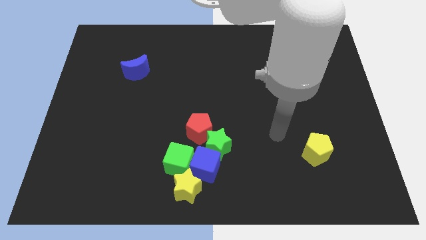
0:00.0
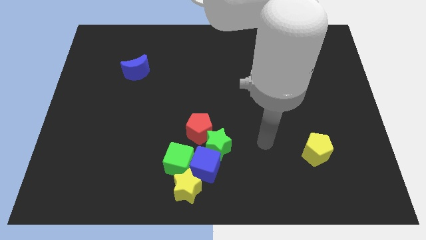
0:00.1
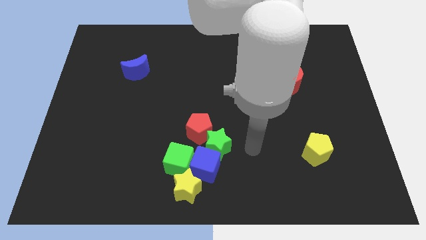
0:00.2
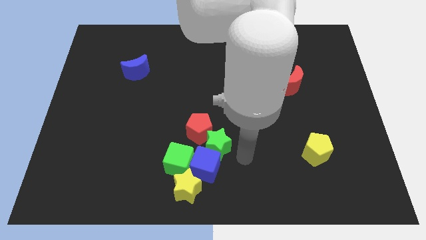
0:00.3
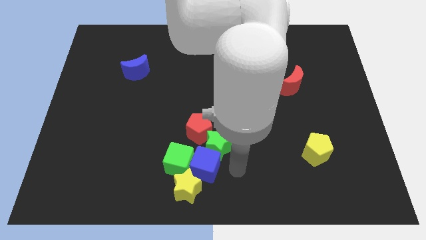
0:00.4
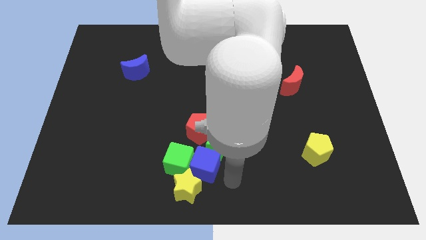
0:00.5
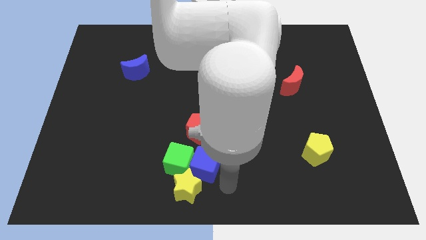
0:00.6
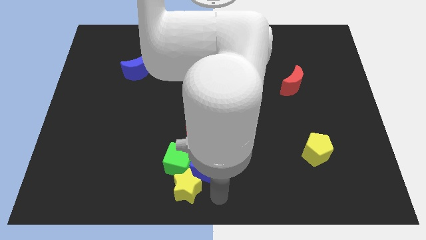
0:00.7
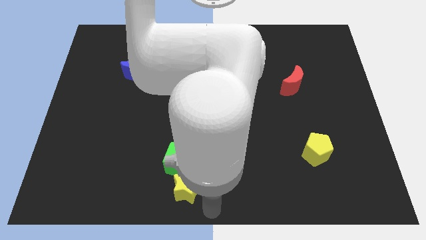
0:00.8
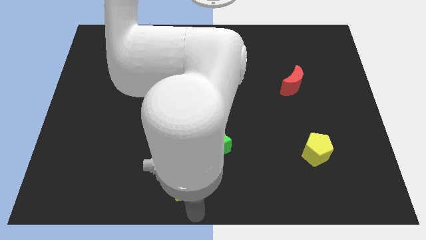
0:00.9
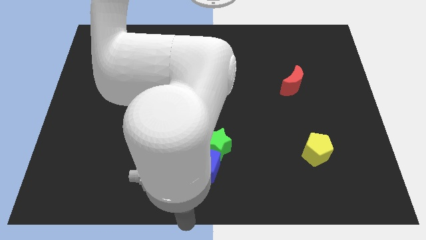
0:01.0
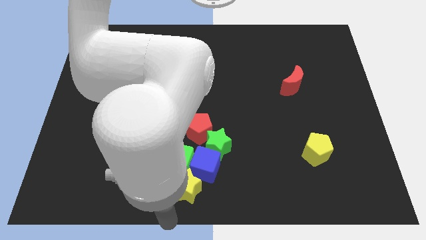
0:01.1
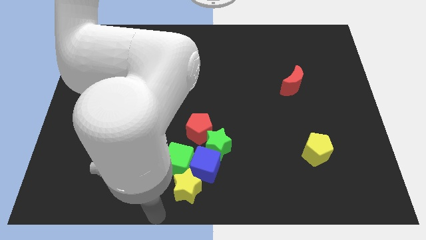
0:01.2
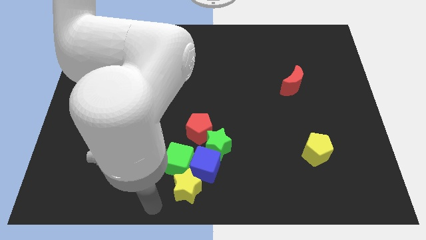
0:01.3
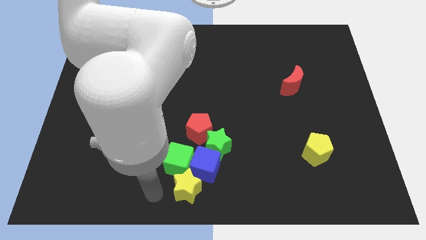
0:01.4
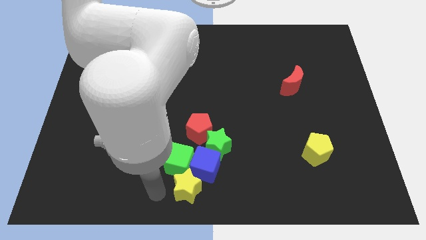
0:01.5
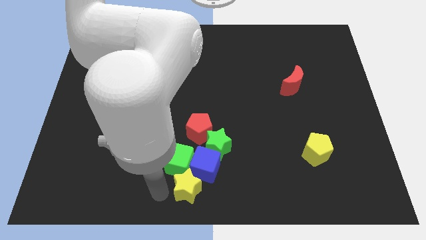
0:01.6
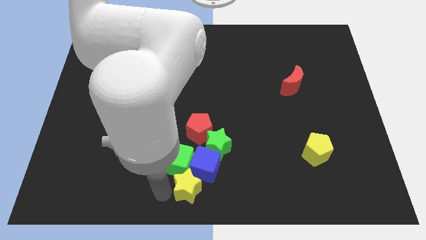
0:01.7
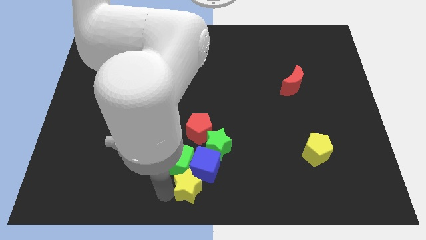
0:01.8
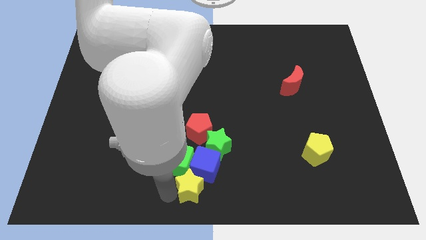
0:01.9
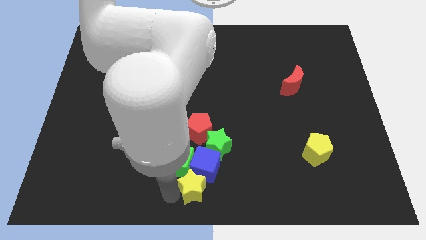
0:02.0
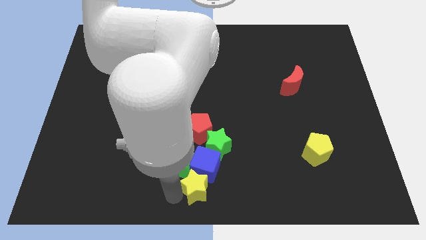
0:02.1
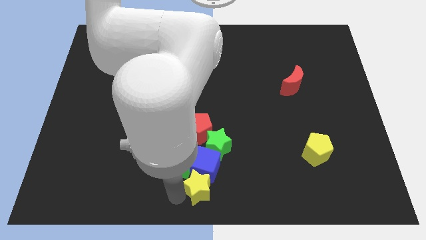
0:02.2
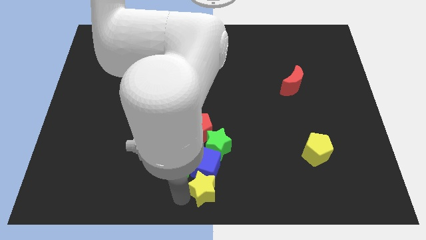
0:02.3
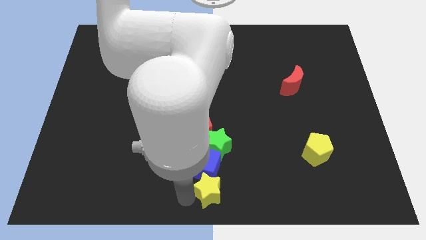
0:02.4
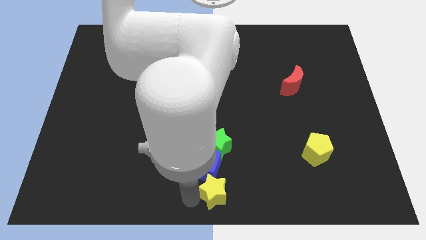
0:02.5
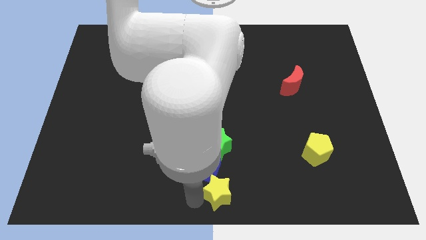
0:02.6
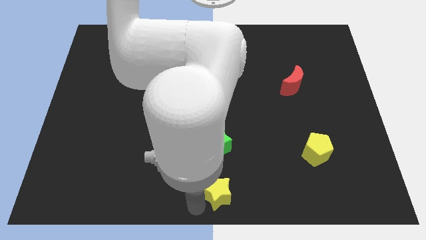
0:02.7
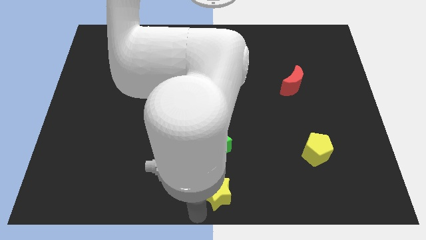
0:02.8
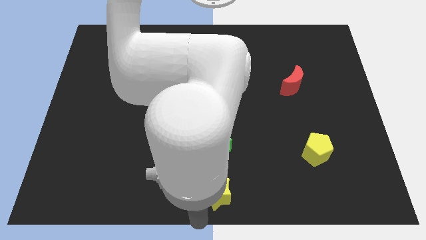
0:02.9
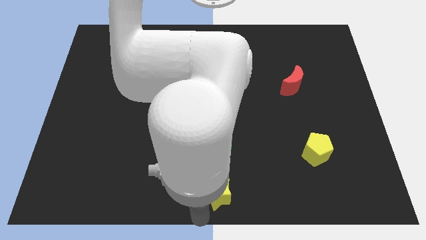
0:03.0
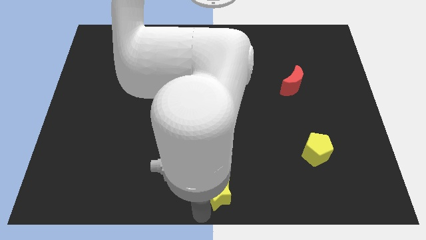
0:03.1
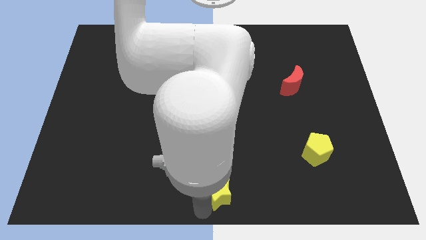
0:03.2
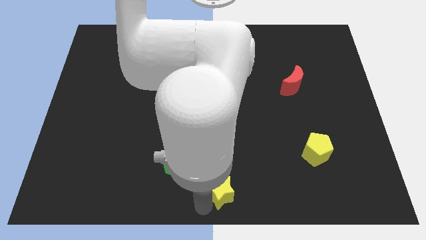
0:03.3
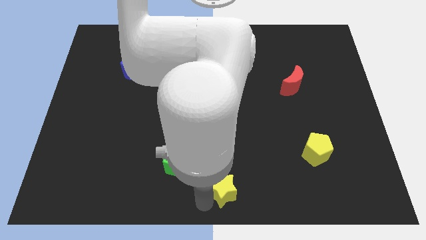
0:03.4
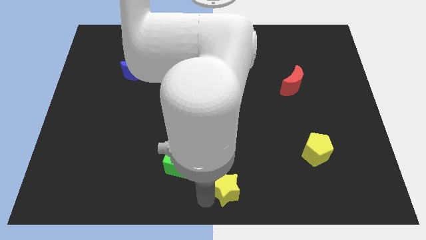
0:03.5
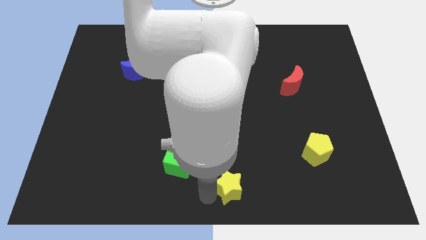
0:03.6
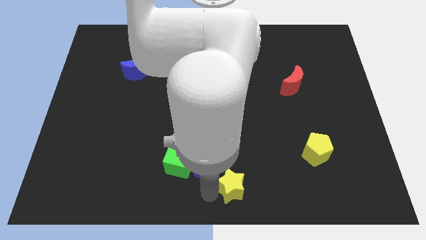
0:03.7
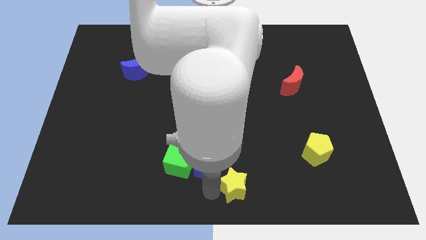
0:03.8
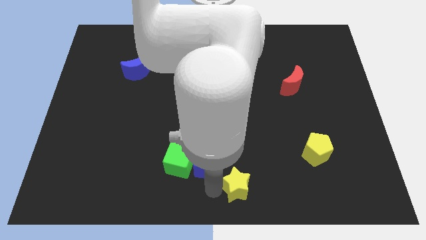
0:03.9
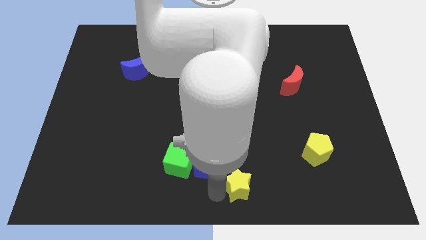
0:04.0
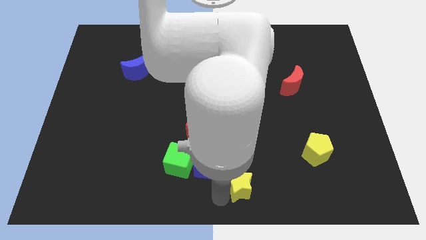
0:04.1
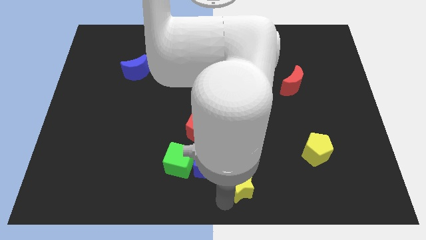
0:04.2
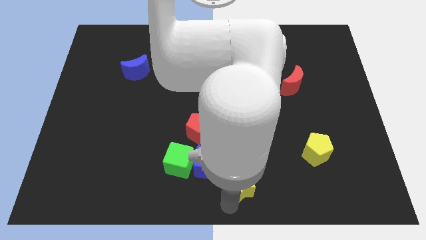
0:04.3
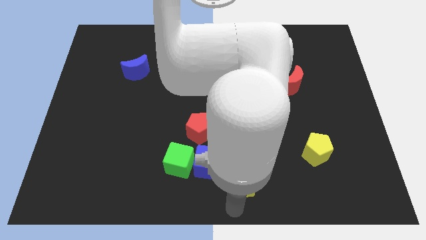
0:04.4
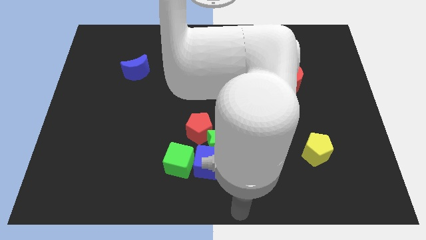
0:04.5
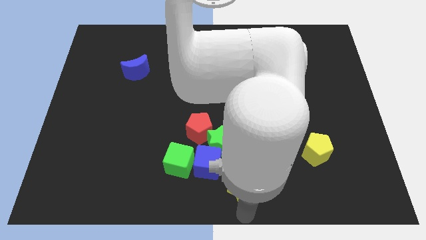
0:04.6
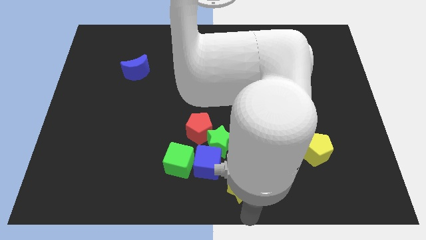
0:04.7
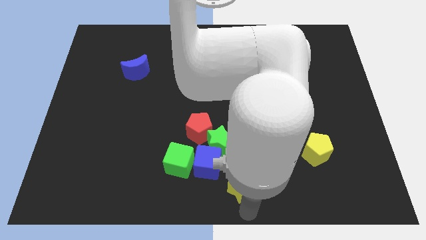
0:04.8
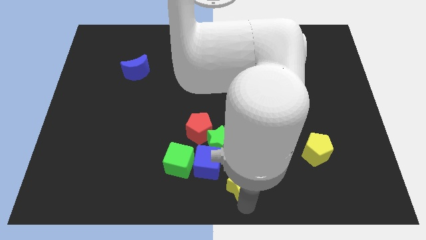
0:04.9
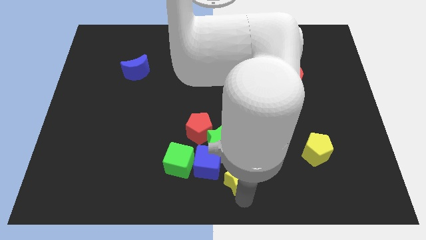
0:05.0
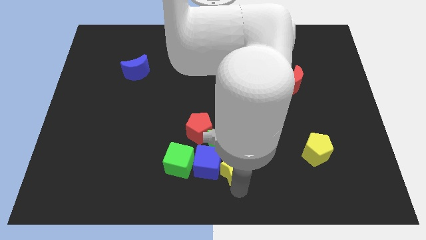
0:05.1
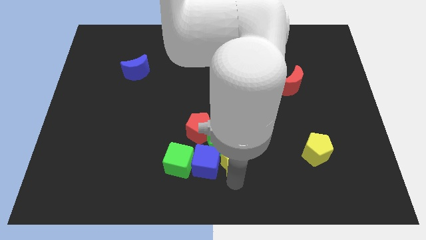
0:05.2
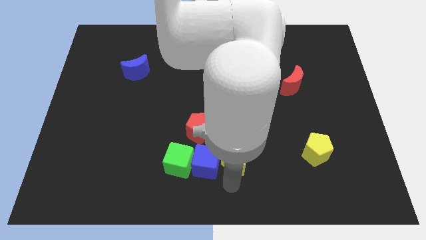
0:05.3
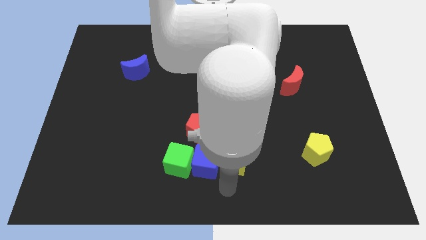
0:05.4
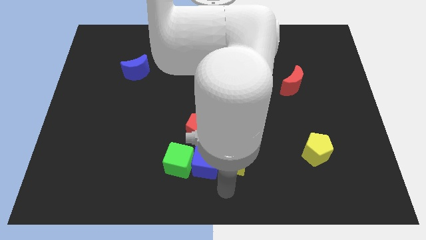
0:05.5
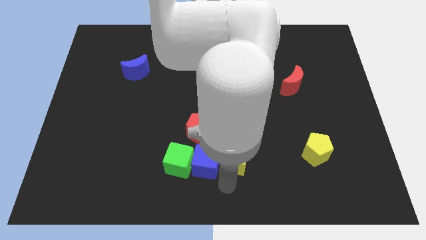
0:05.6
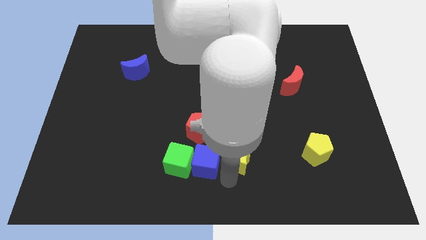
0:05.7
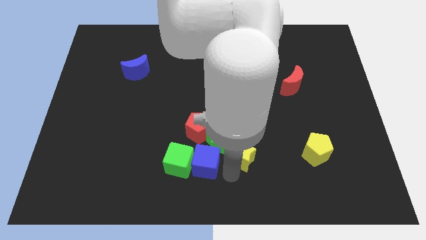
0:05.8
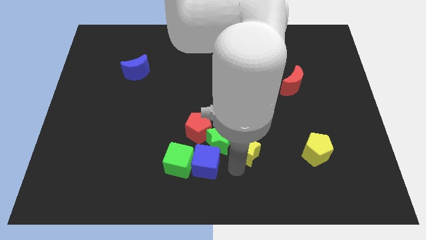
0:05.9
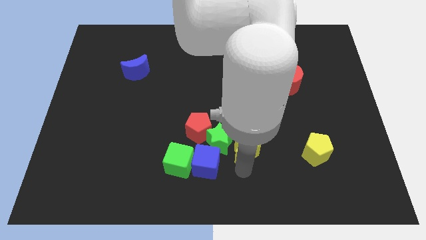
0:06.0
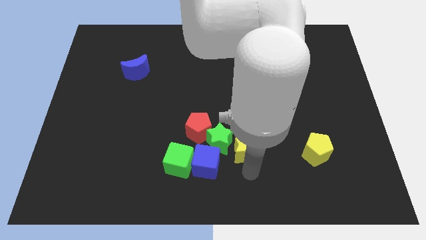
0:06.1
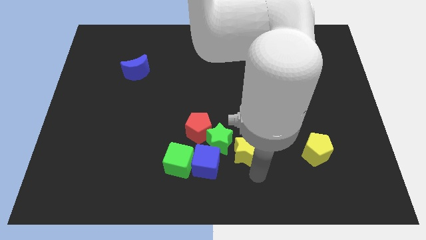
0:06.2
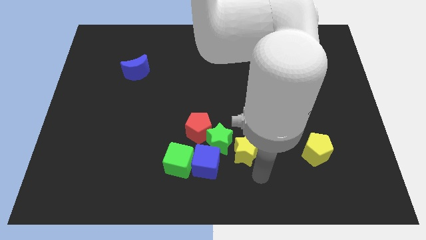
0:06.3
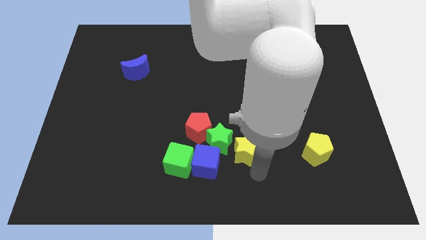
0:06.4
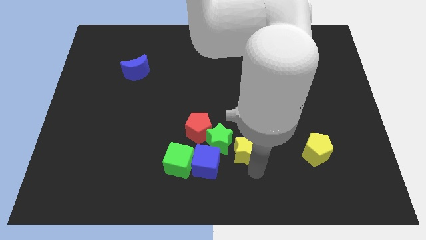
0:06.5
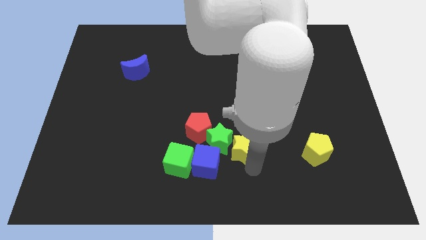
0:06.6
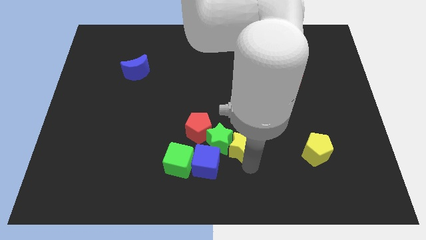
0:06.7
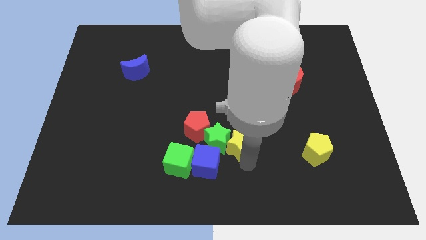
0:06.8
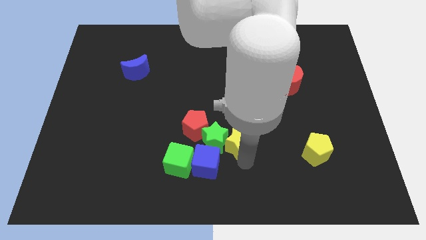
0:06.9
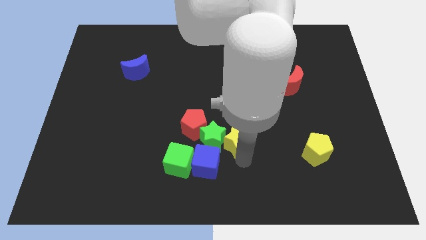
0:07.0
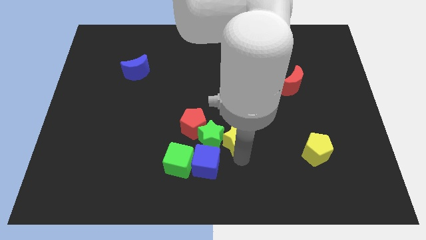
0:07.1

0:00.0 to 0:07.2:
move the yellow star to the center
